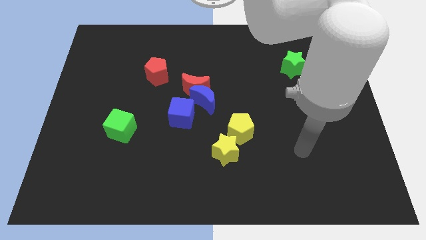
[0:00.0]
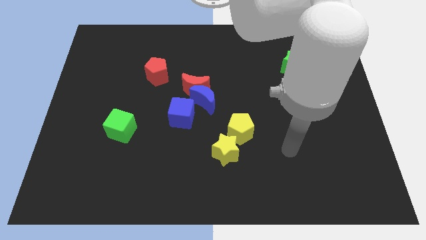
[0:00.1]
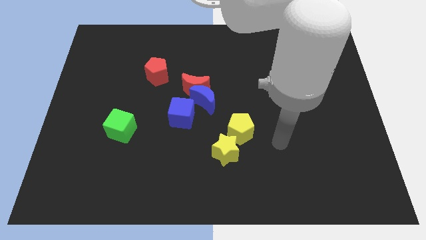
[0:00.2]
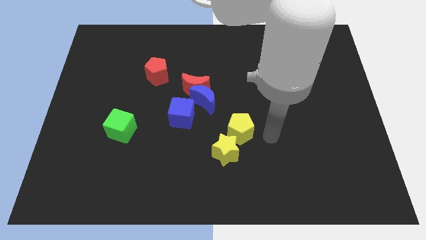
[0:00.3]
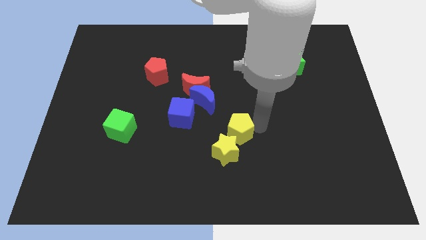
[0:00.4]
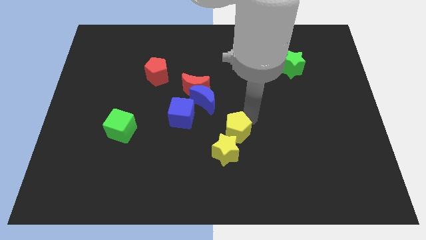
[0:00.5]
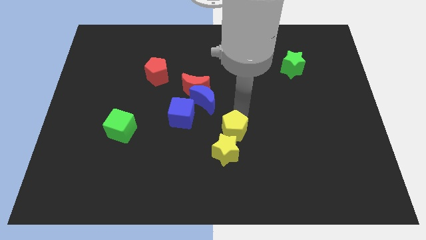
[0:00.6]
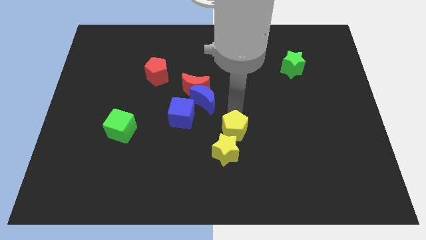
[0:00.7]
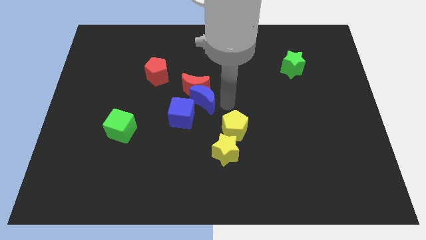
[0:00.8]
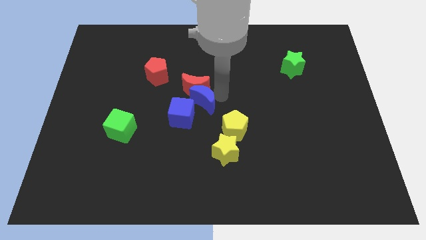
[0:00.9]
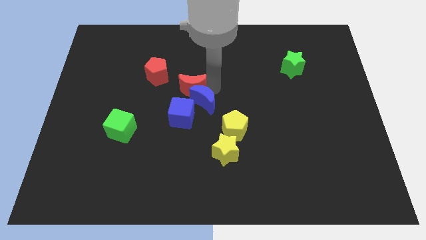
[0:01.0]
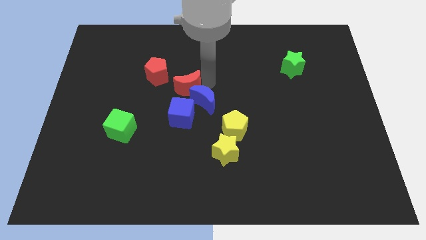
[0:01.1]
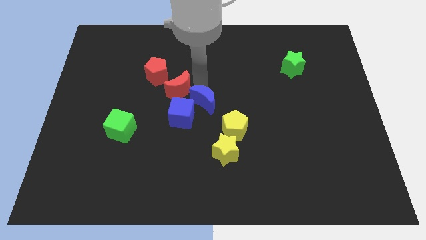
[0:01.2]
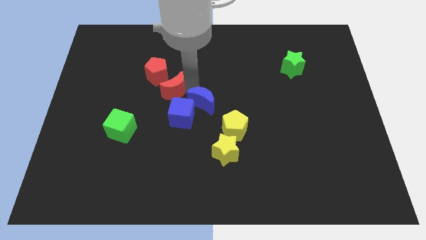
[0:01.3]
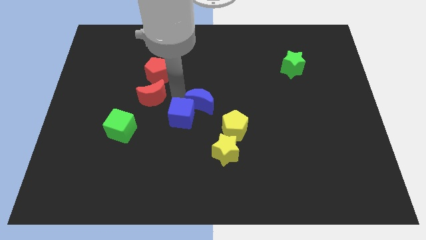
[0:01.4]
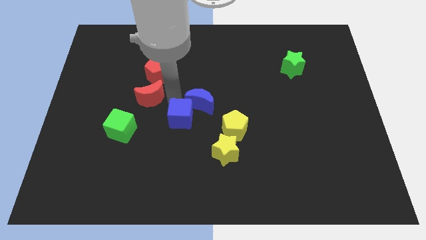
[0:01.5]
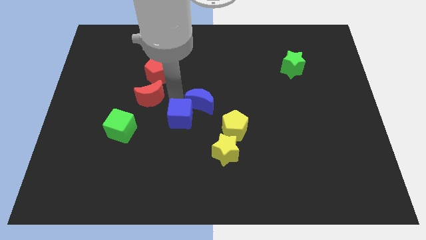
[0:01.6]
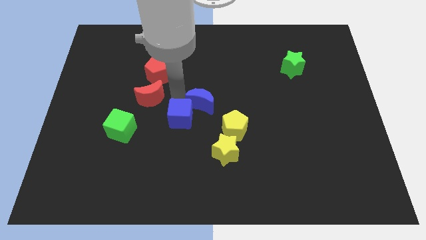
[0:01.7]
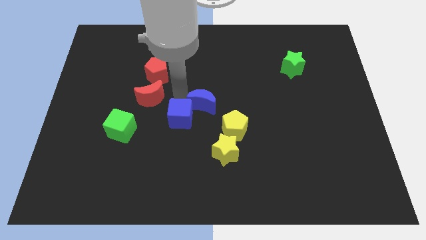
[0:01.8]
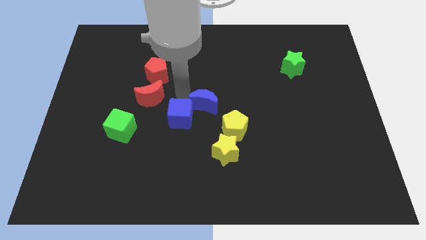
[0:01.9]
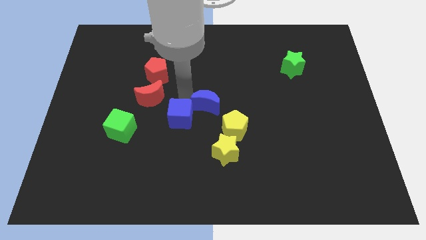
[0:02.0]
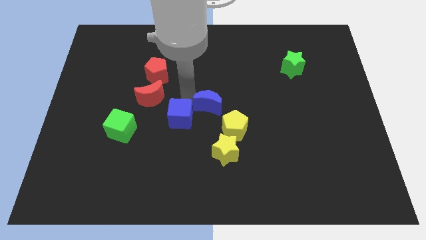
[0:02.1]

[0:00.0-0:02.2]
separate the blue moon from the red moon and blue cube

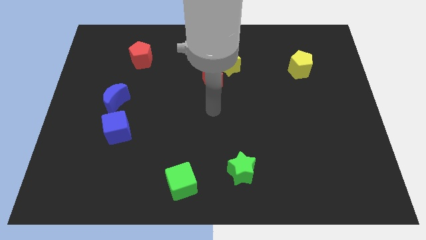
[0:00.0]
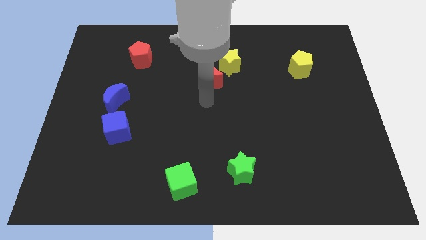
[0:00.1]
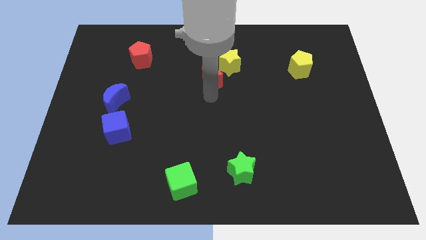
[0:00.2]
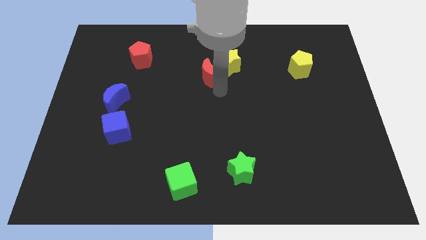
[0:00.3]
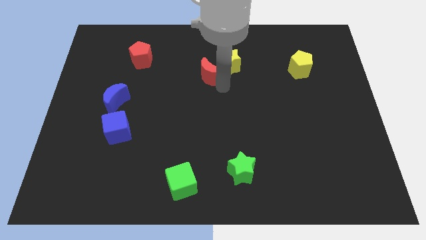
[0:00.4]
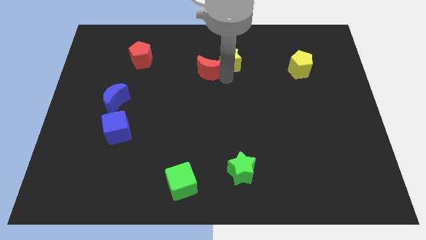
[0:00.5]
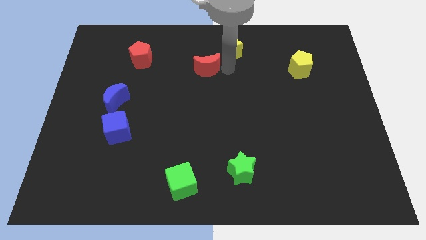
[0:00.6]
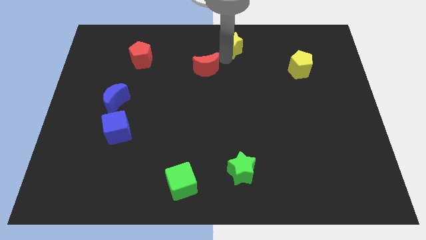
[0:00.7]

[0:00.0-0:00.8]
pull the red moon apart from the yellow star

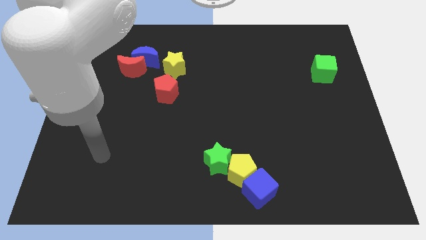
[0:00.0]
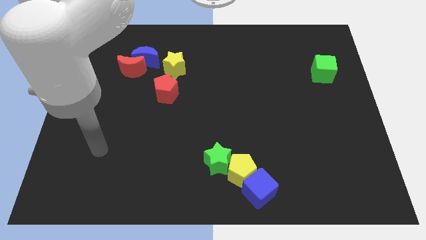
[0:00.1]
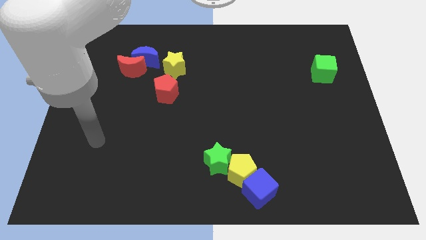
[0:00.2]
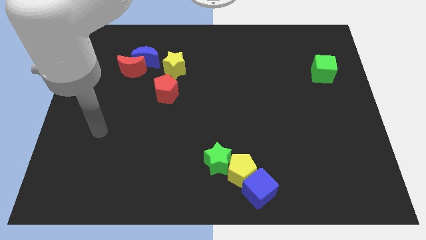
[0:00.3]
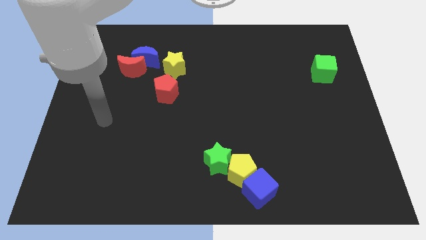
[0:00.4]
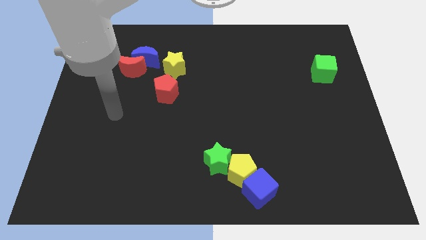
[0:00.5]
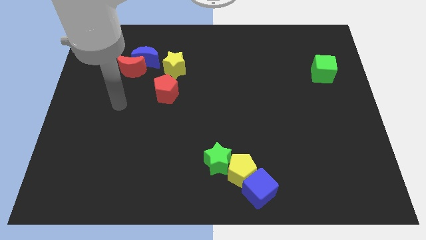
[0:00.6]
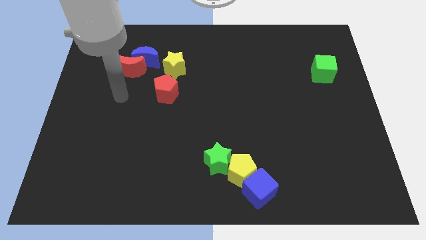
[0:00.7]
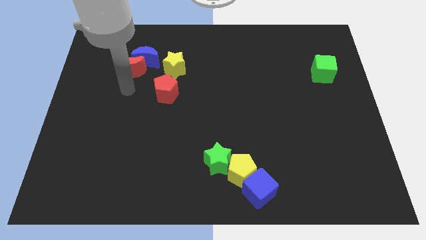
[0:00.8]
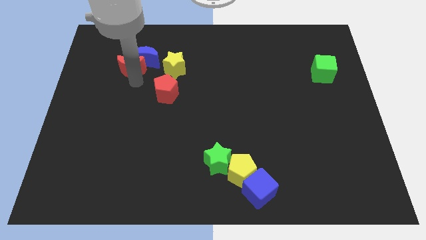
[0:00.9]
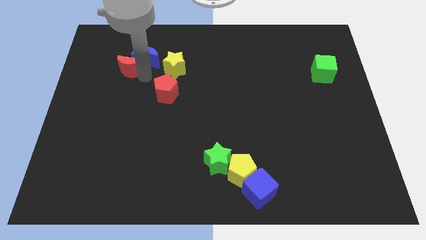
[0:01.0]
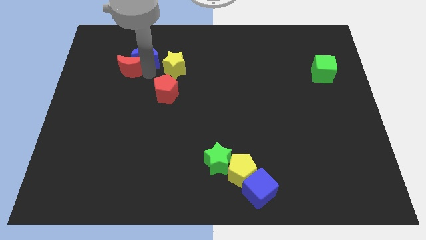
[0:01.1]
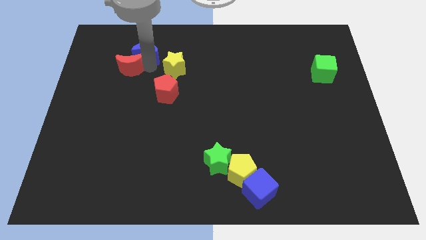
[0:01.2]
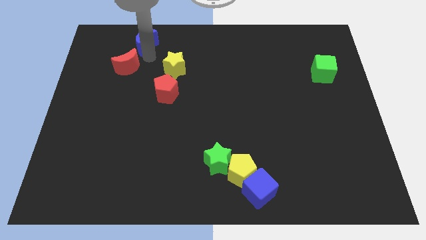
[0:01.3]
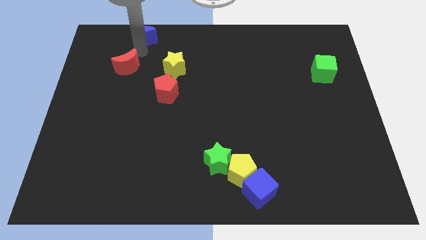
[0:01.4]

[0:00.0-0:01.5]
move the red moon away from the blue moon

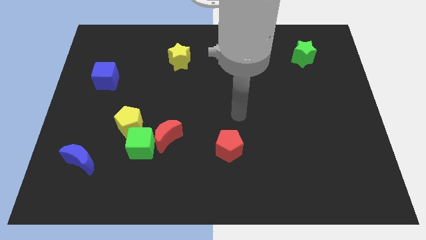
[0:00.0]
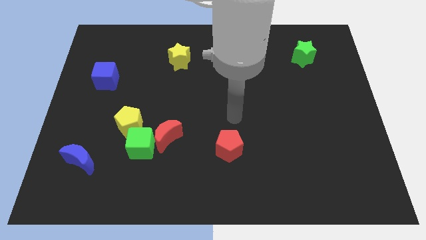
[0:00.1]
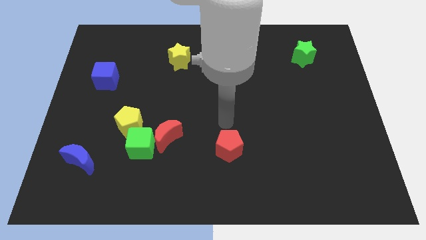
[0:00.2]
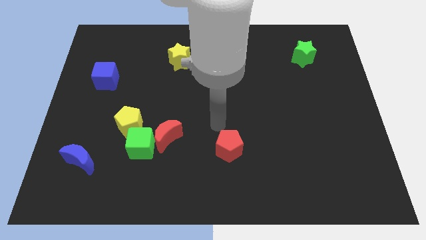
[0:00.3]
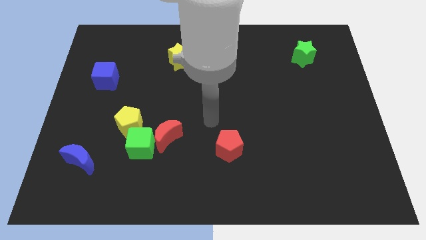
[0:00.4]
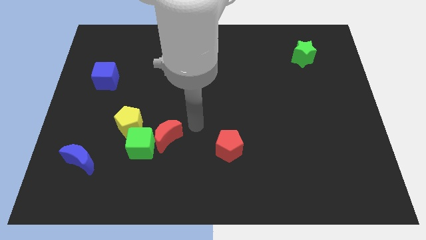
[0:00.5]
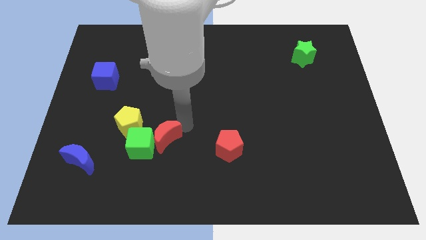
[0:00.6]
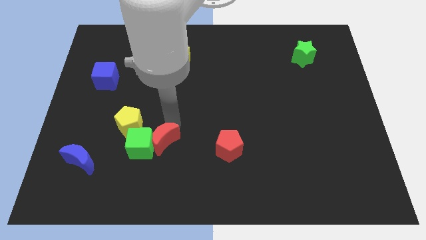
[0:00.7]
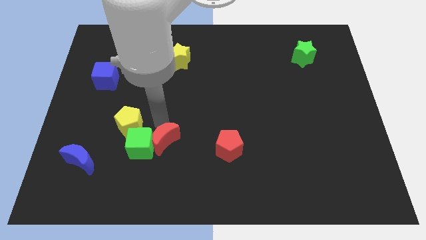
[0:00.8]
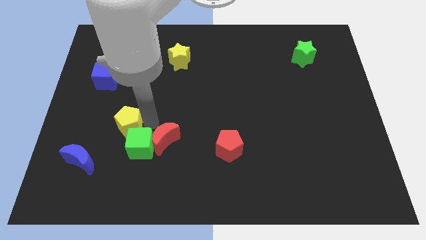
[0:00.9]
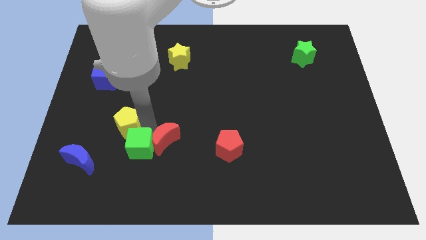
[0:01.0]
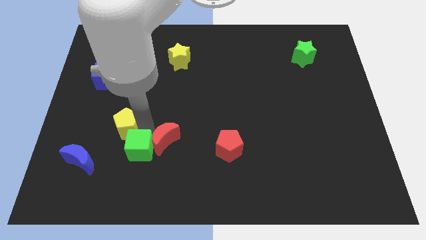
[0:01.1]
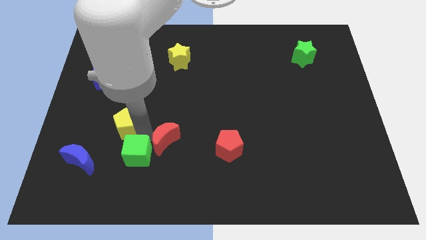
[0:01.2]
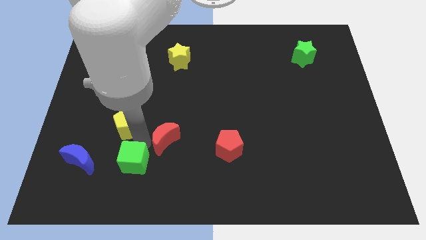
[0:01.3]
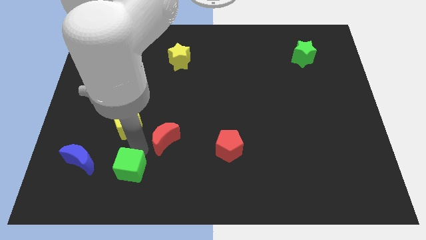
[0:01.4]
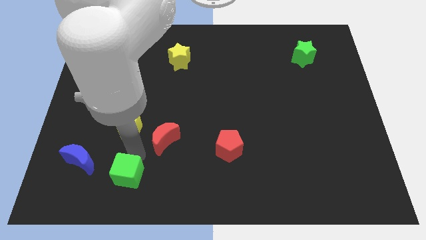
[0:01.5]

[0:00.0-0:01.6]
separate the green cube from the red moon and yellow pentagon

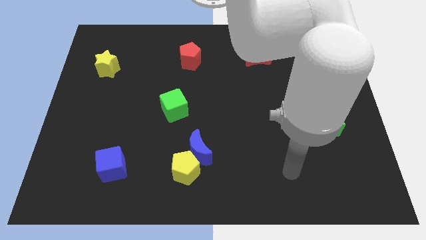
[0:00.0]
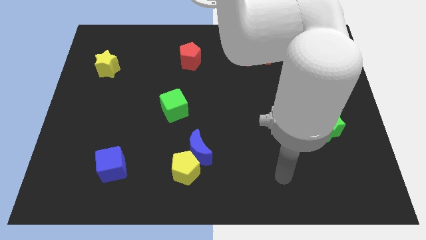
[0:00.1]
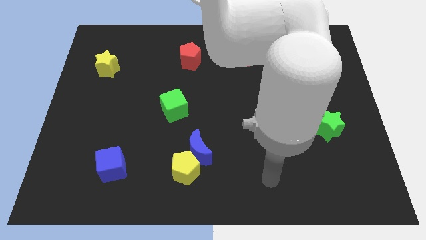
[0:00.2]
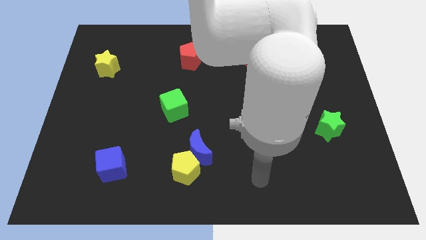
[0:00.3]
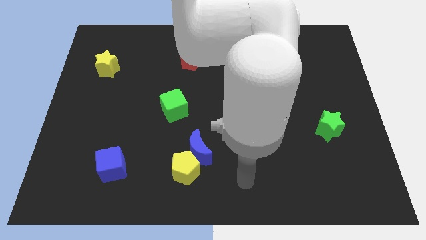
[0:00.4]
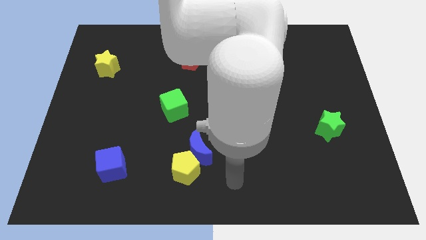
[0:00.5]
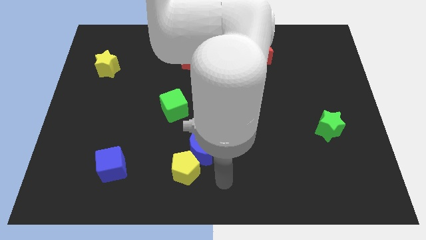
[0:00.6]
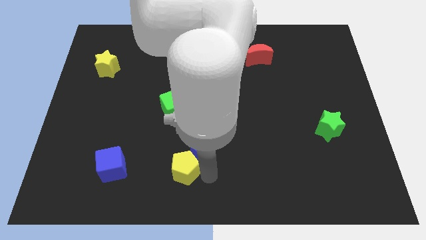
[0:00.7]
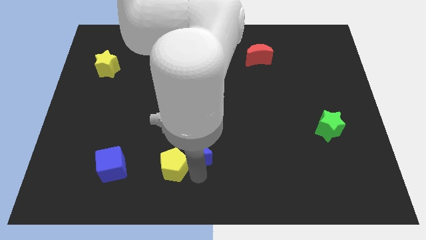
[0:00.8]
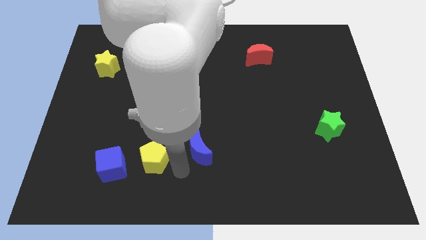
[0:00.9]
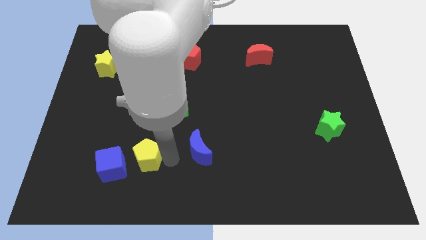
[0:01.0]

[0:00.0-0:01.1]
separate the blue moon from the yellow pentagon

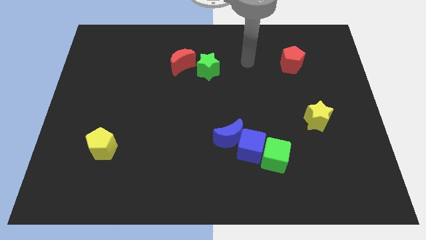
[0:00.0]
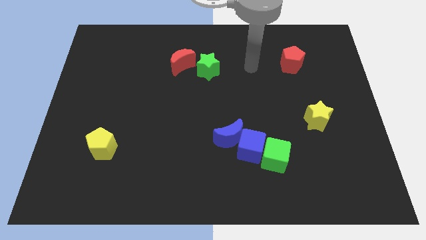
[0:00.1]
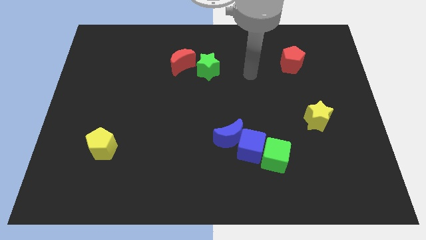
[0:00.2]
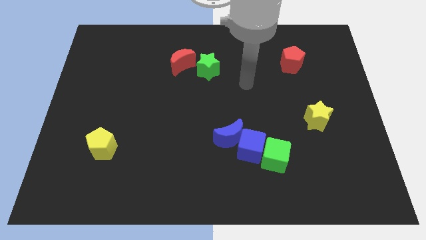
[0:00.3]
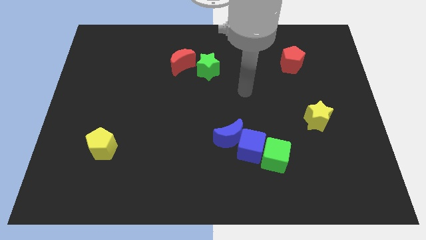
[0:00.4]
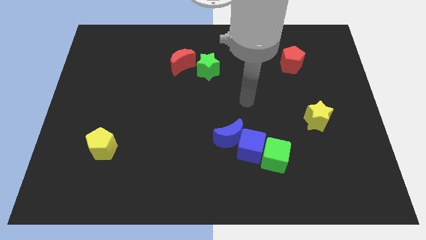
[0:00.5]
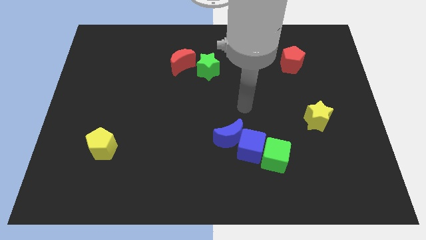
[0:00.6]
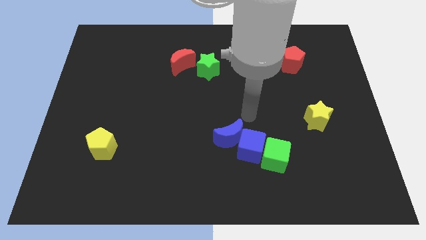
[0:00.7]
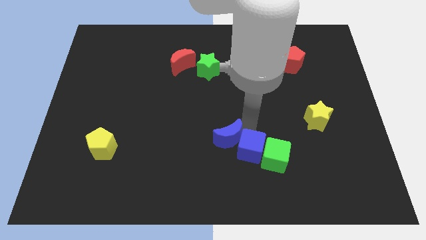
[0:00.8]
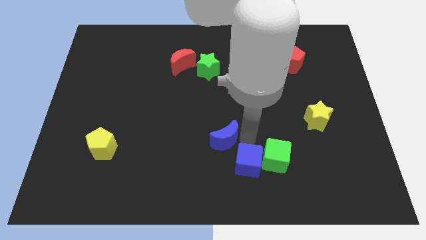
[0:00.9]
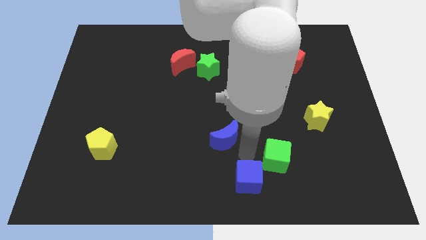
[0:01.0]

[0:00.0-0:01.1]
pull the blue moon apart from the blue cube

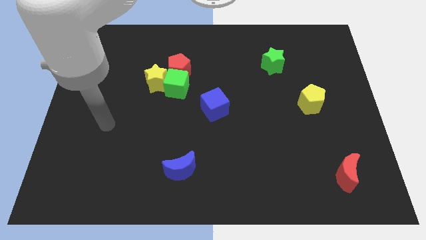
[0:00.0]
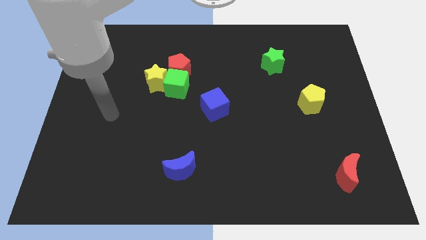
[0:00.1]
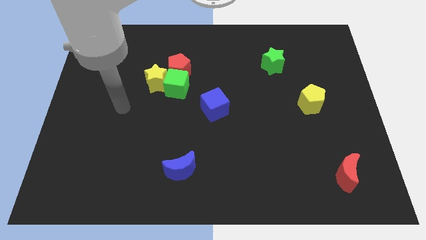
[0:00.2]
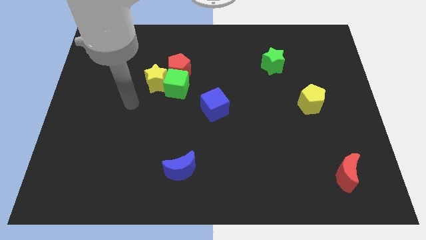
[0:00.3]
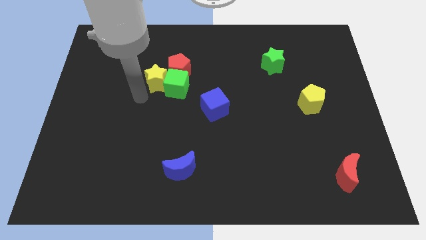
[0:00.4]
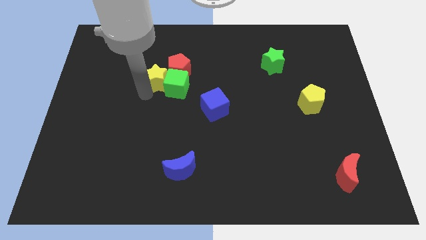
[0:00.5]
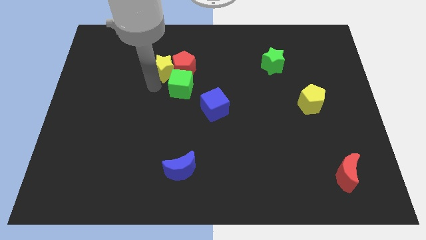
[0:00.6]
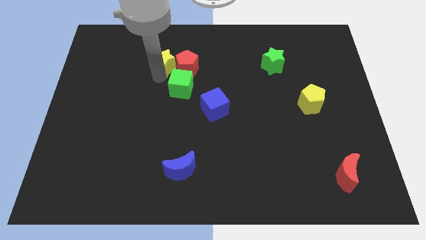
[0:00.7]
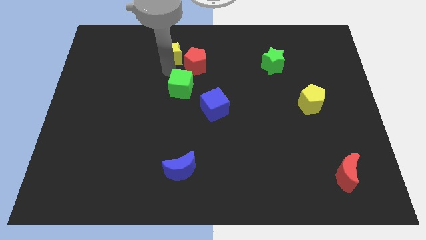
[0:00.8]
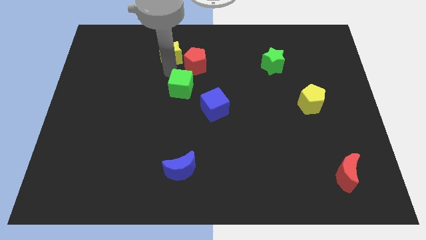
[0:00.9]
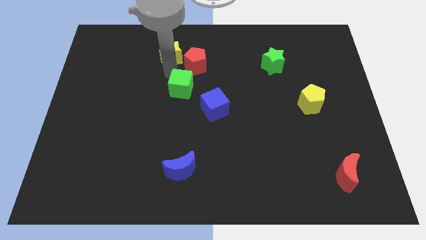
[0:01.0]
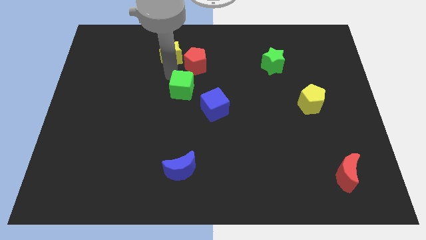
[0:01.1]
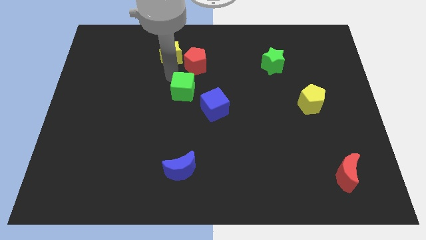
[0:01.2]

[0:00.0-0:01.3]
separate the green cube from the red pentagon and yellow star
